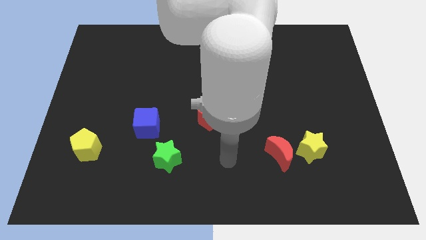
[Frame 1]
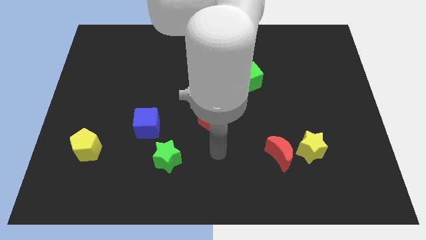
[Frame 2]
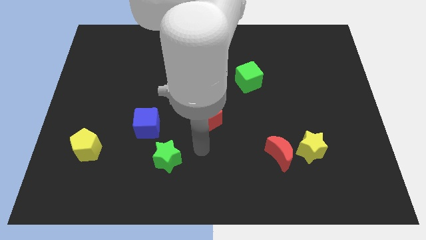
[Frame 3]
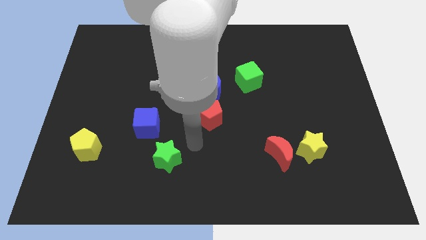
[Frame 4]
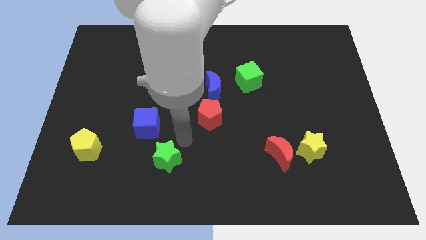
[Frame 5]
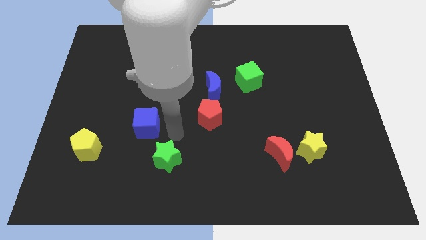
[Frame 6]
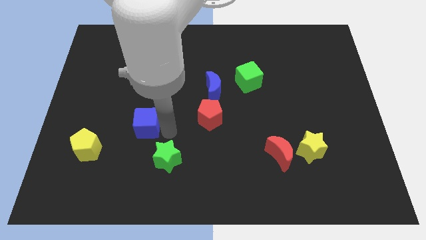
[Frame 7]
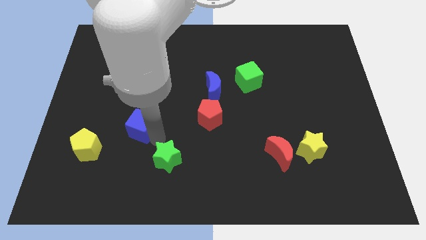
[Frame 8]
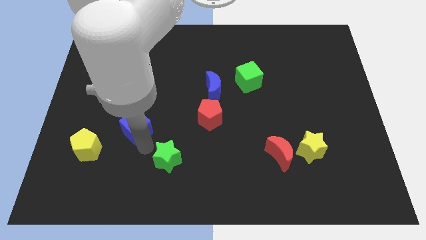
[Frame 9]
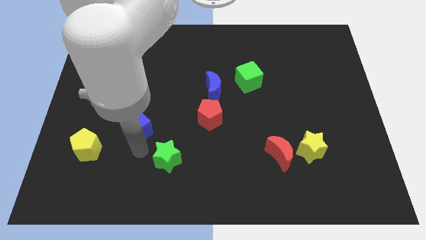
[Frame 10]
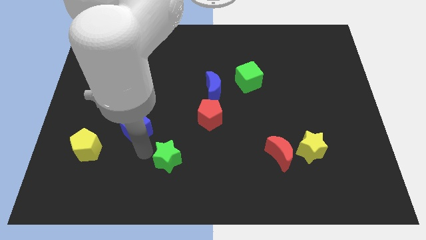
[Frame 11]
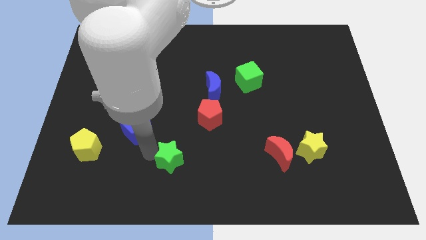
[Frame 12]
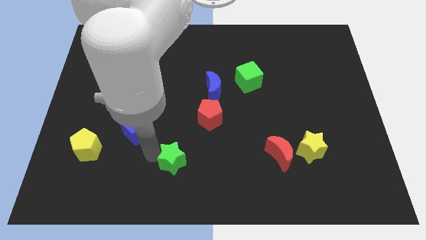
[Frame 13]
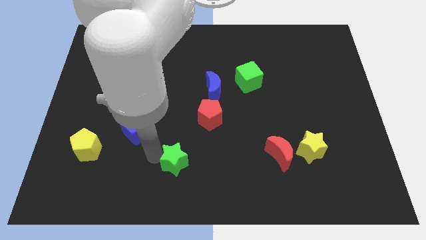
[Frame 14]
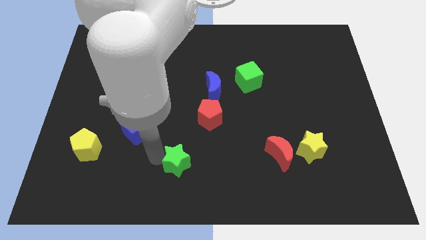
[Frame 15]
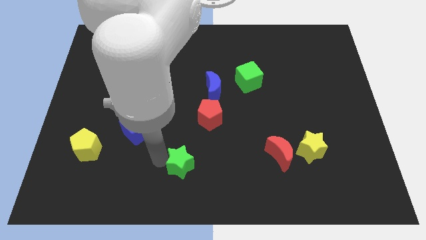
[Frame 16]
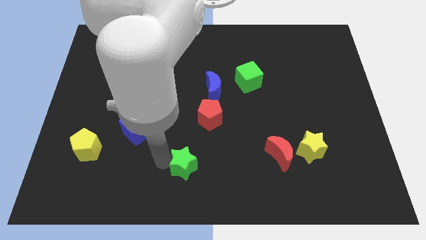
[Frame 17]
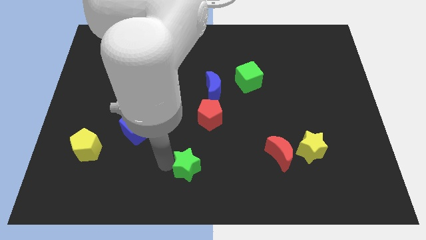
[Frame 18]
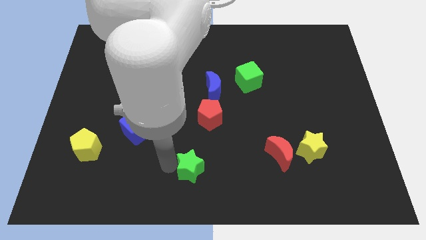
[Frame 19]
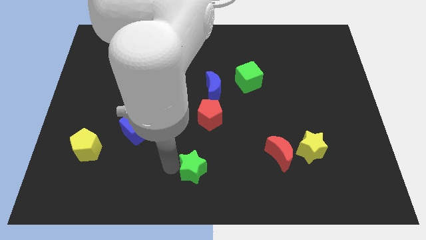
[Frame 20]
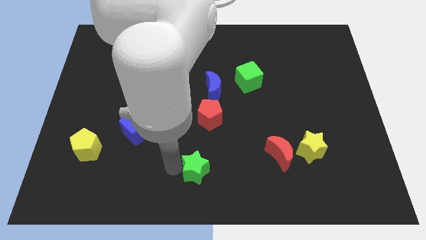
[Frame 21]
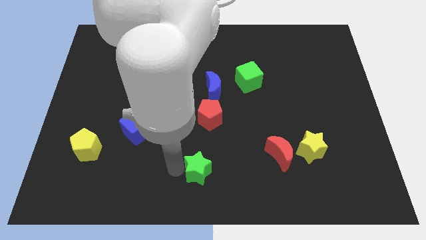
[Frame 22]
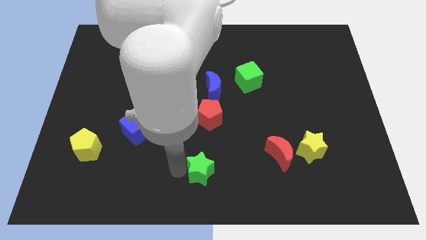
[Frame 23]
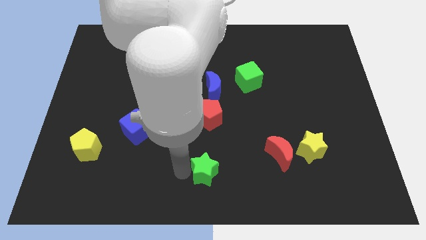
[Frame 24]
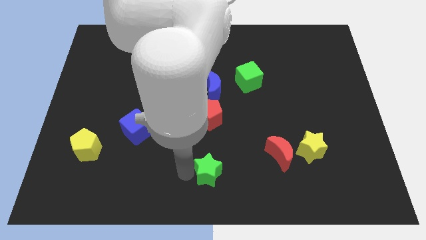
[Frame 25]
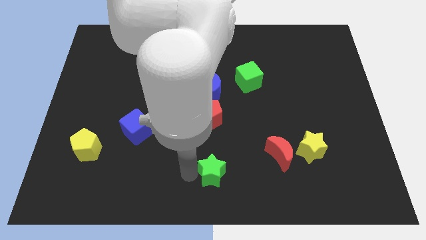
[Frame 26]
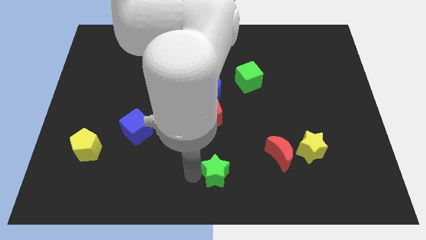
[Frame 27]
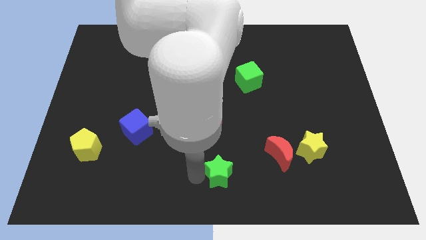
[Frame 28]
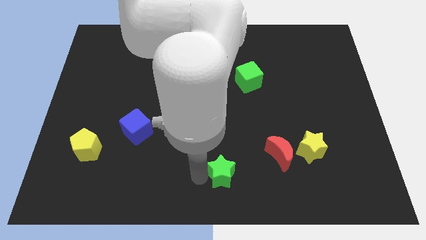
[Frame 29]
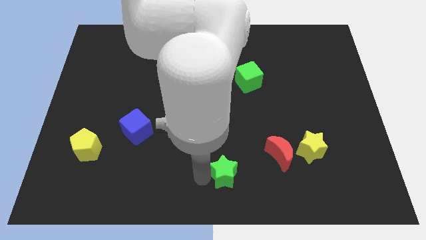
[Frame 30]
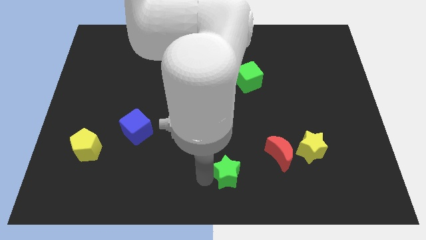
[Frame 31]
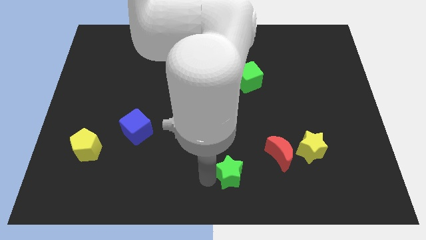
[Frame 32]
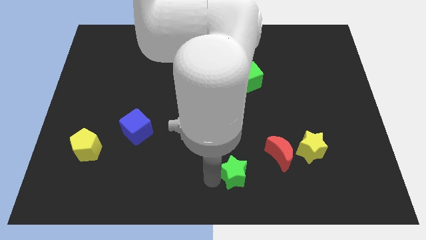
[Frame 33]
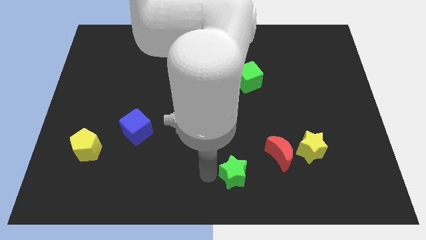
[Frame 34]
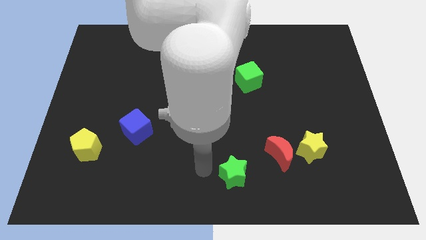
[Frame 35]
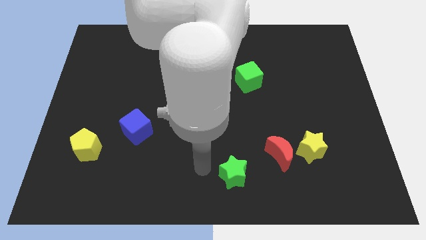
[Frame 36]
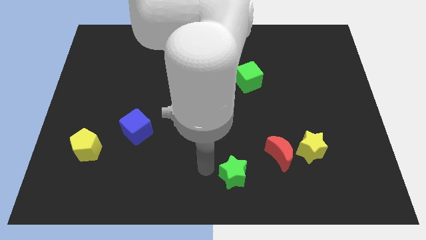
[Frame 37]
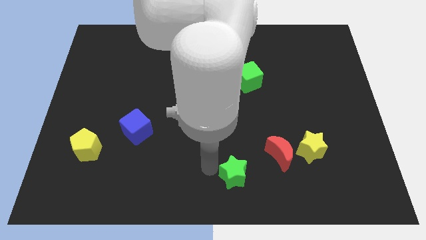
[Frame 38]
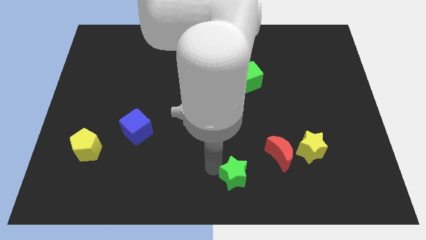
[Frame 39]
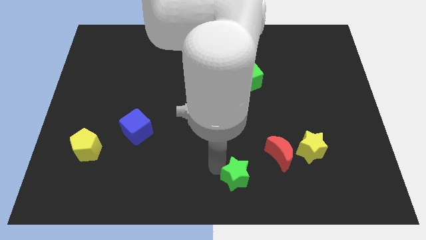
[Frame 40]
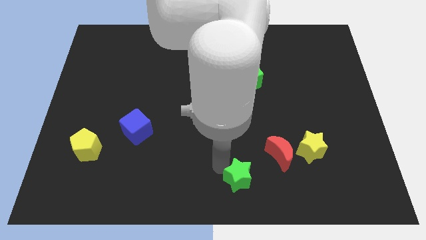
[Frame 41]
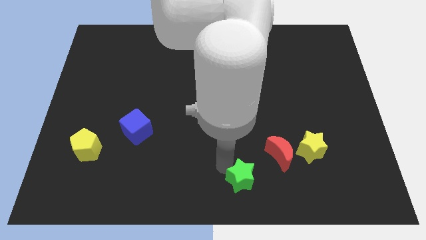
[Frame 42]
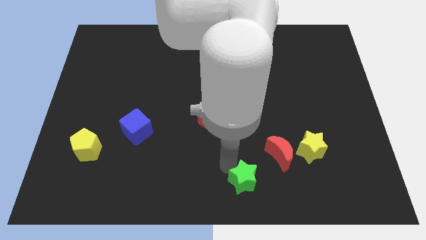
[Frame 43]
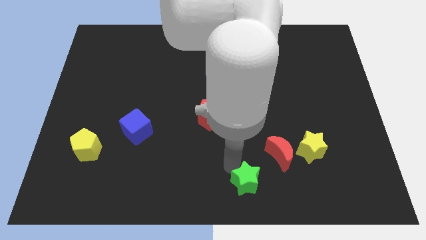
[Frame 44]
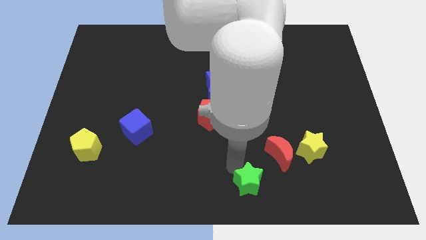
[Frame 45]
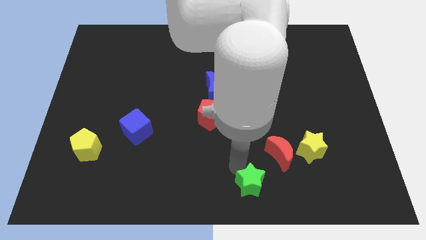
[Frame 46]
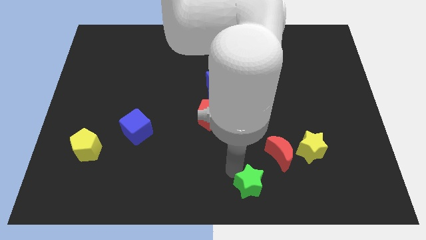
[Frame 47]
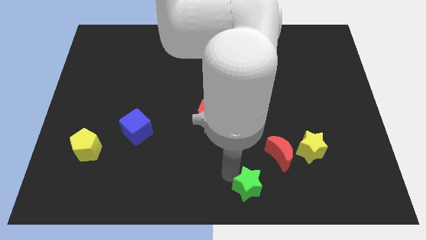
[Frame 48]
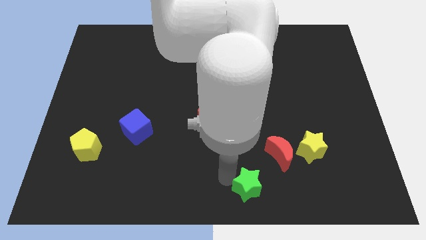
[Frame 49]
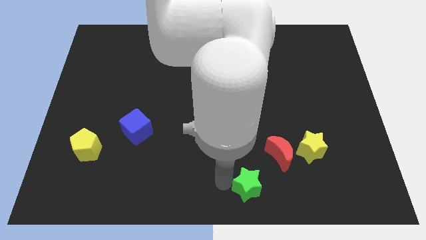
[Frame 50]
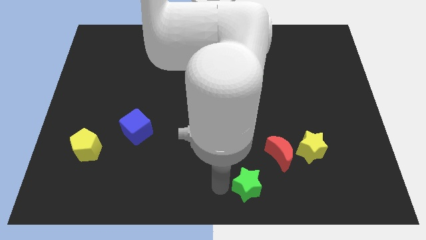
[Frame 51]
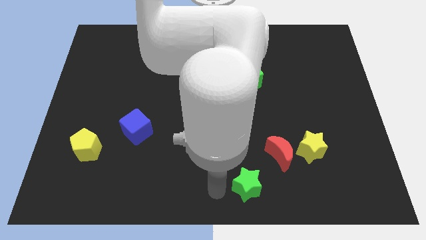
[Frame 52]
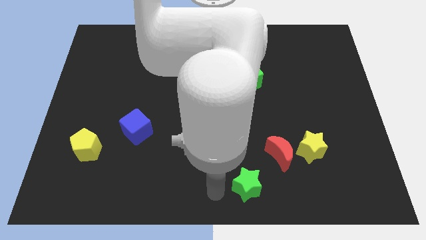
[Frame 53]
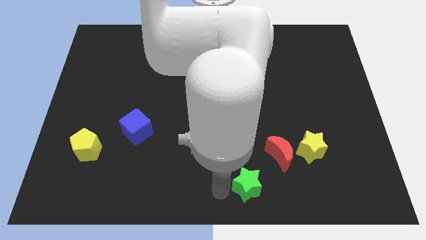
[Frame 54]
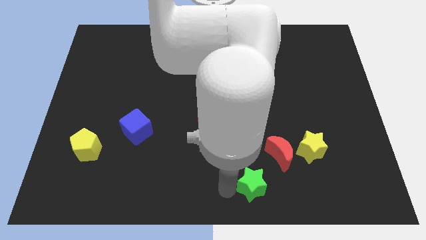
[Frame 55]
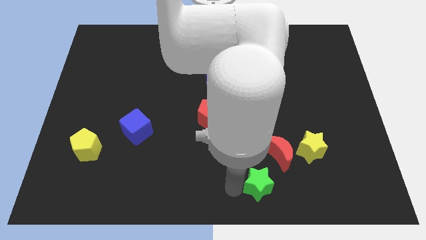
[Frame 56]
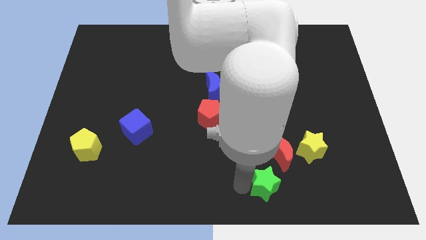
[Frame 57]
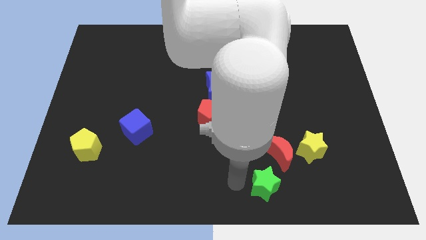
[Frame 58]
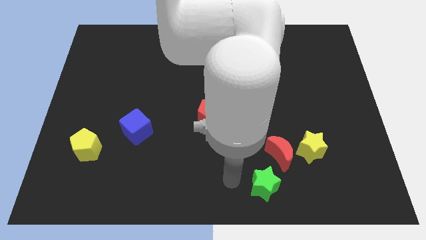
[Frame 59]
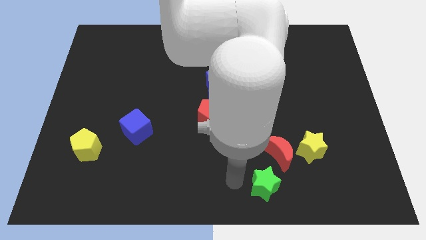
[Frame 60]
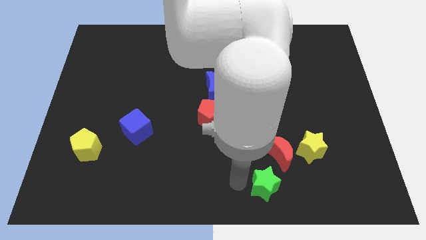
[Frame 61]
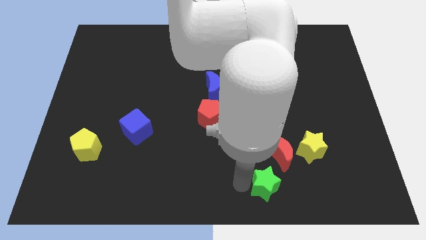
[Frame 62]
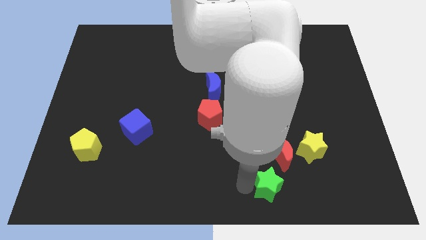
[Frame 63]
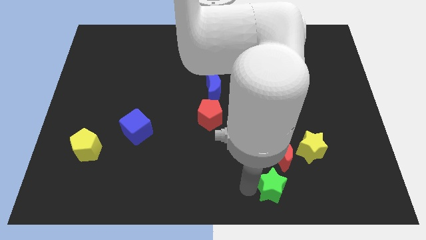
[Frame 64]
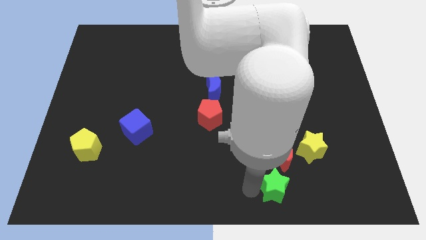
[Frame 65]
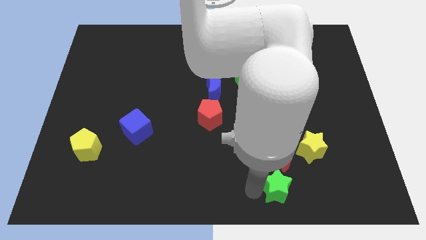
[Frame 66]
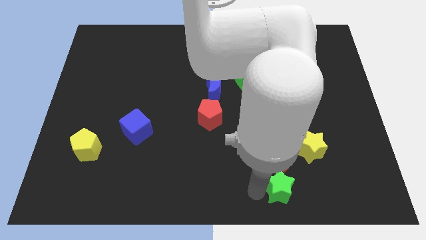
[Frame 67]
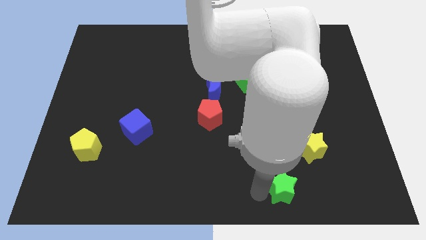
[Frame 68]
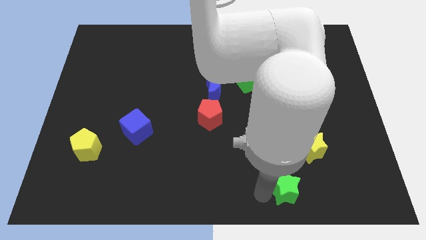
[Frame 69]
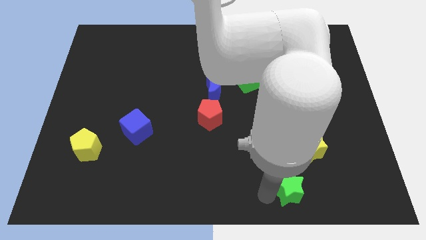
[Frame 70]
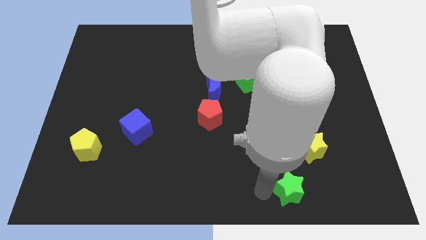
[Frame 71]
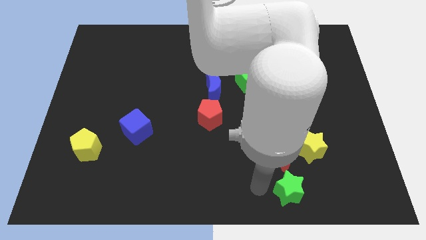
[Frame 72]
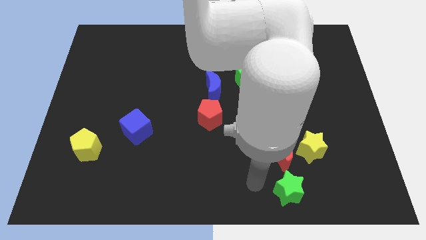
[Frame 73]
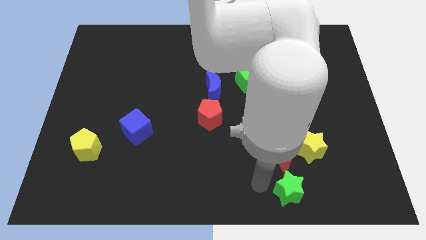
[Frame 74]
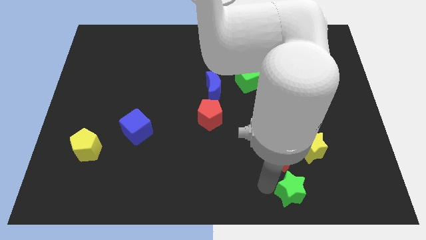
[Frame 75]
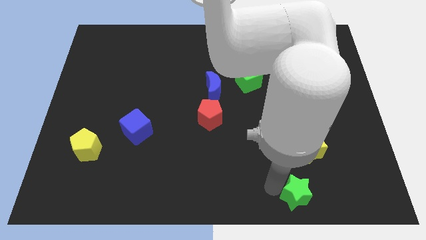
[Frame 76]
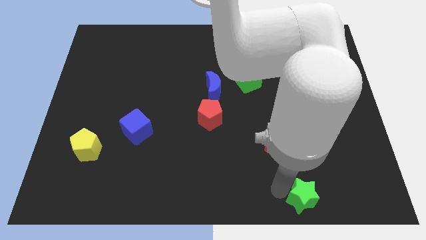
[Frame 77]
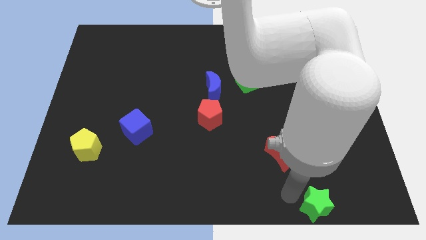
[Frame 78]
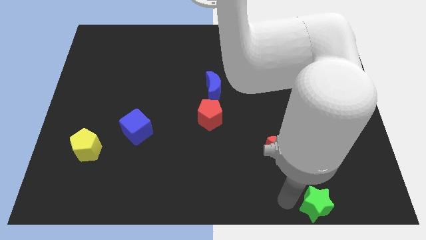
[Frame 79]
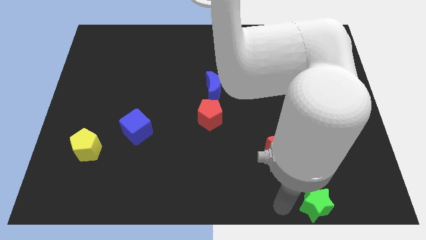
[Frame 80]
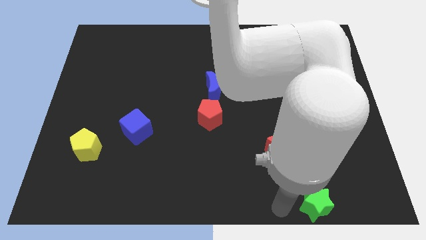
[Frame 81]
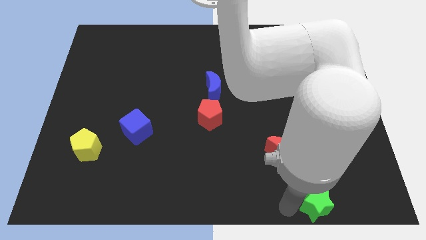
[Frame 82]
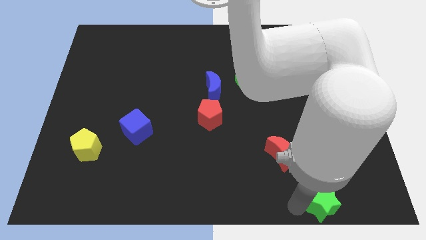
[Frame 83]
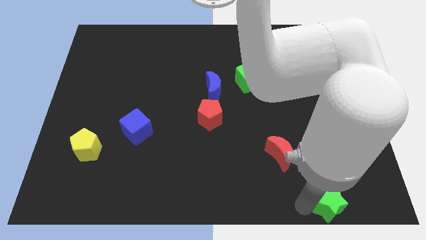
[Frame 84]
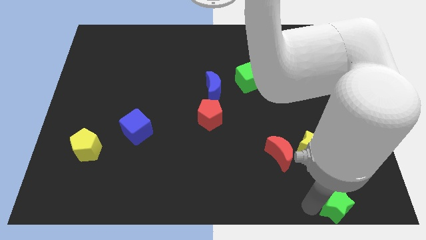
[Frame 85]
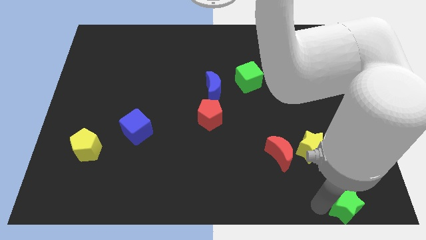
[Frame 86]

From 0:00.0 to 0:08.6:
move the green star to the bottom right corner
